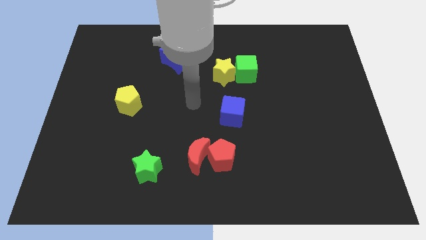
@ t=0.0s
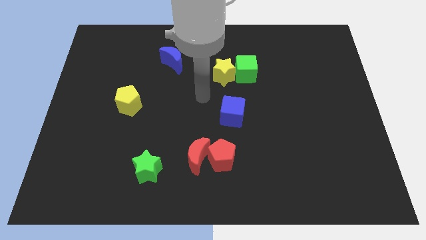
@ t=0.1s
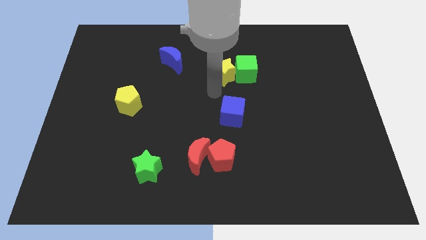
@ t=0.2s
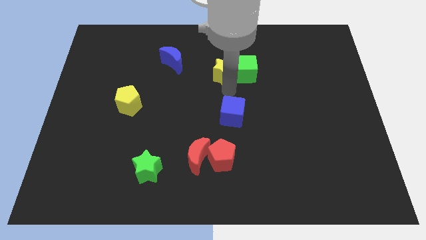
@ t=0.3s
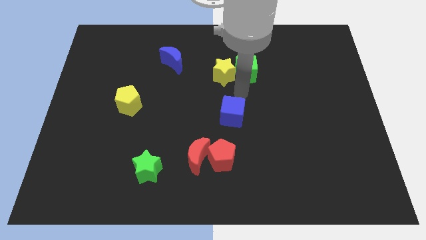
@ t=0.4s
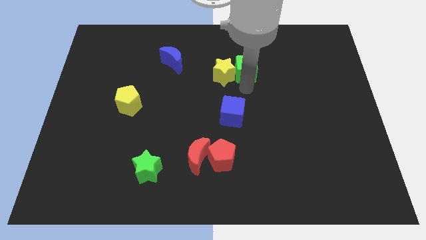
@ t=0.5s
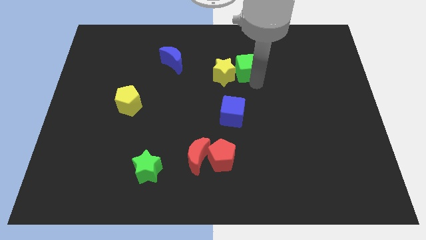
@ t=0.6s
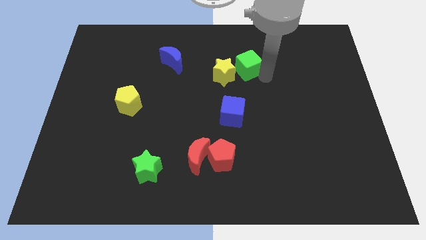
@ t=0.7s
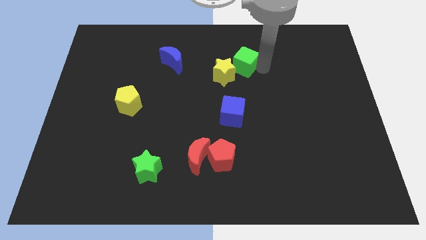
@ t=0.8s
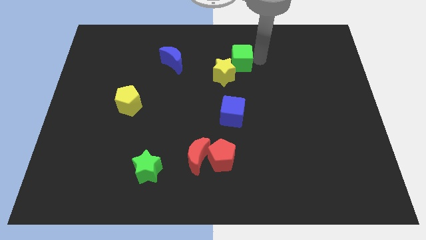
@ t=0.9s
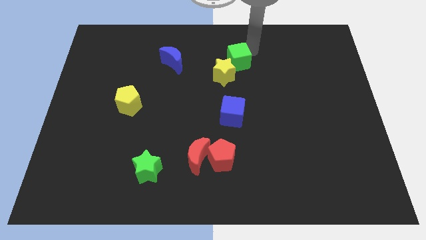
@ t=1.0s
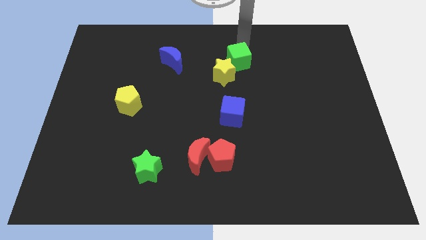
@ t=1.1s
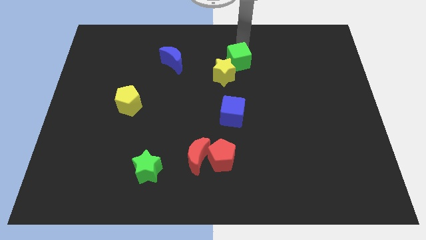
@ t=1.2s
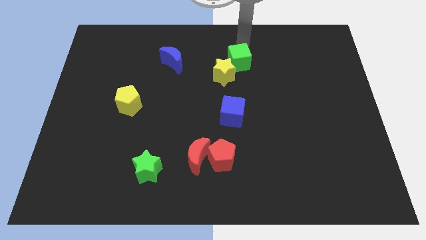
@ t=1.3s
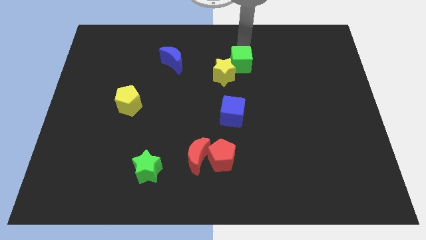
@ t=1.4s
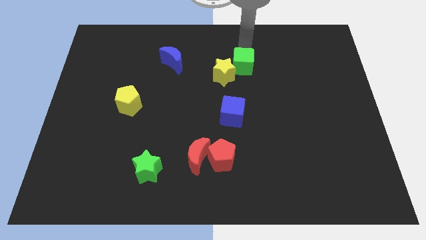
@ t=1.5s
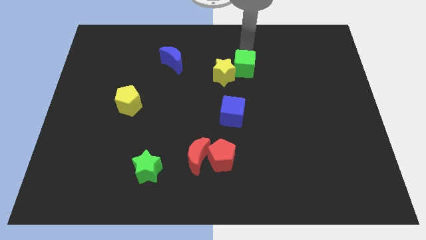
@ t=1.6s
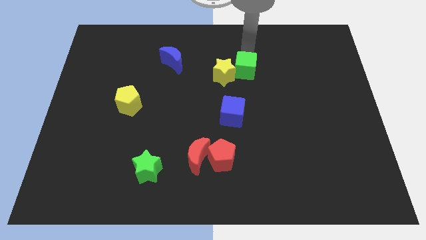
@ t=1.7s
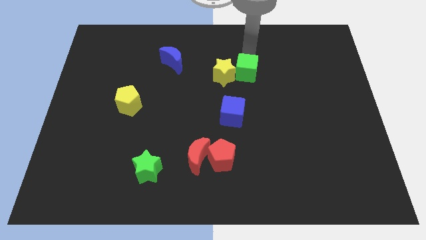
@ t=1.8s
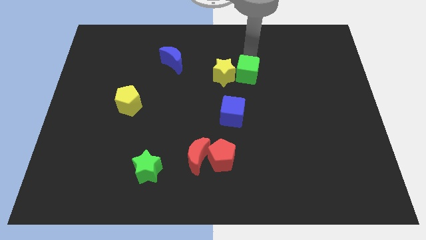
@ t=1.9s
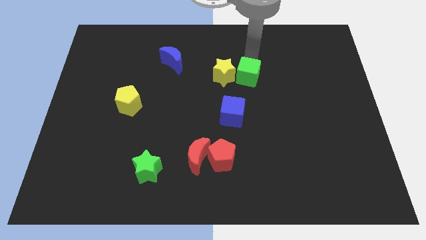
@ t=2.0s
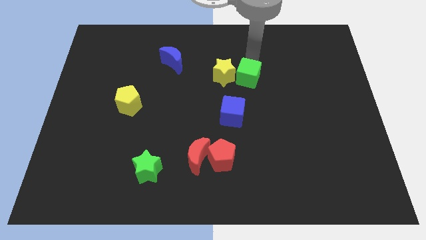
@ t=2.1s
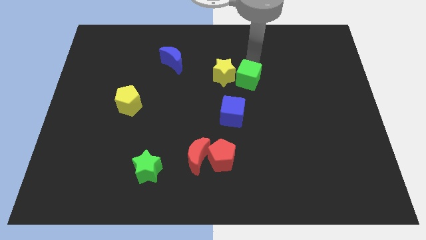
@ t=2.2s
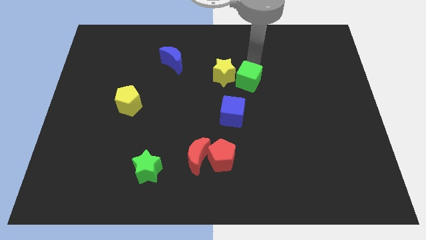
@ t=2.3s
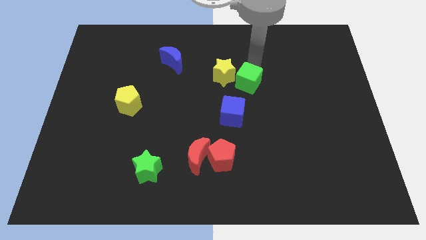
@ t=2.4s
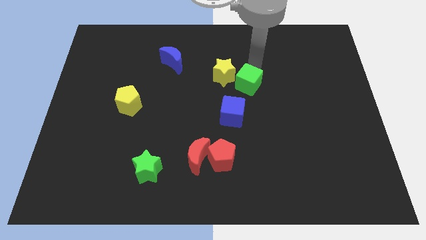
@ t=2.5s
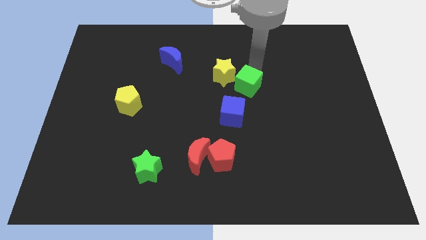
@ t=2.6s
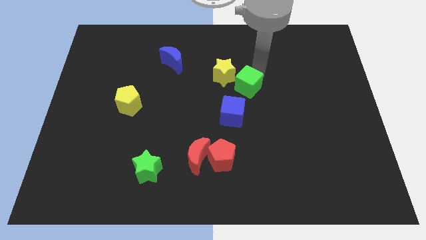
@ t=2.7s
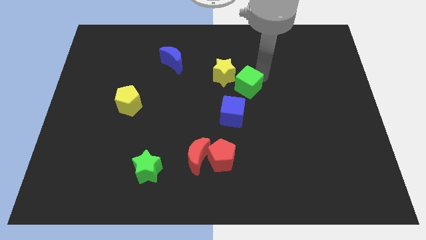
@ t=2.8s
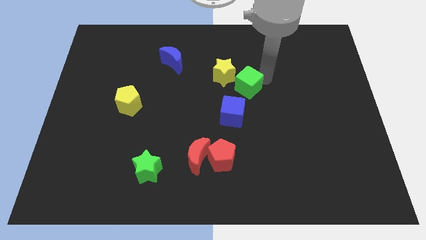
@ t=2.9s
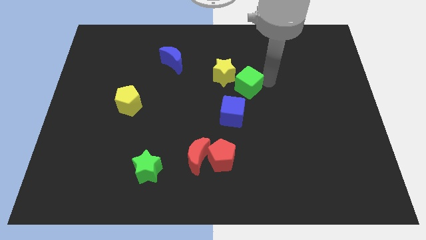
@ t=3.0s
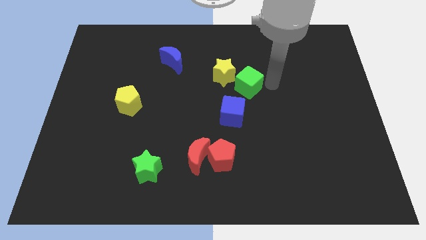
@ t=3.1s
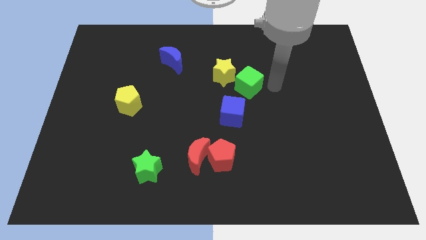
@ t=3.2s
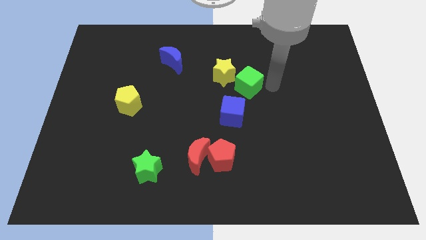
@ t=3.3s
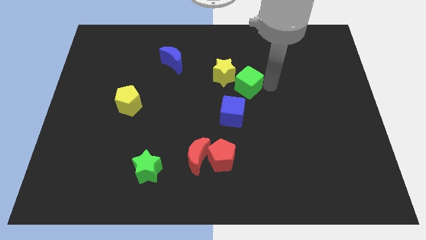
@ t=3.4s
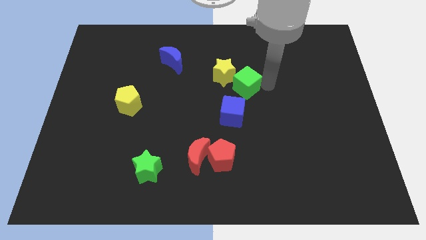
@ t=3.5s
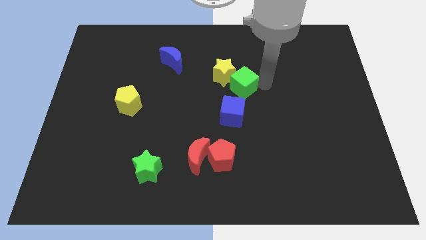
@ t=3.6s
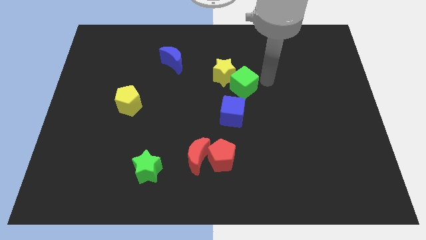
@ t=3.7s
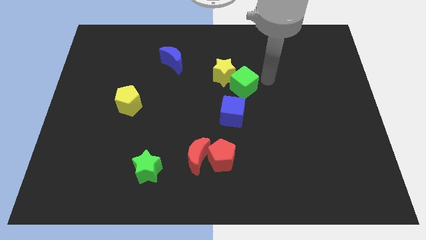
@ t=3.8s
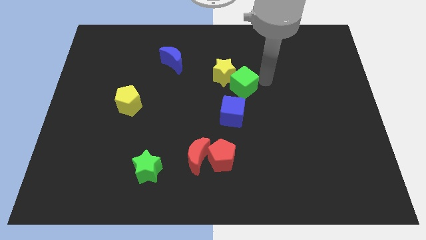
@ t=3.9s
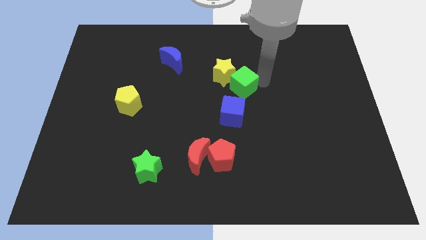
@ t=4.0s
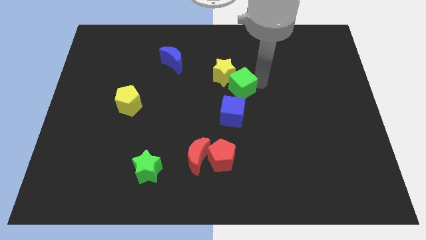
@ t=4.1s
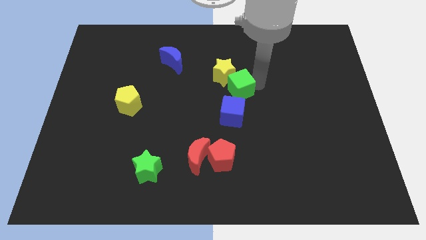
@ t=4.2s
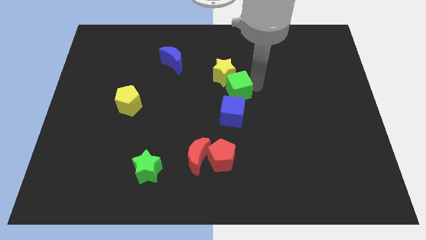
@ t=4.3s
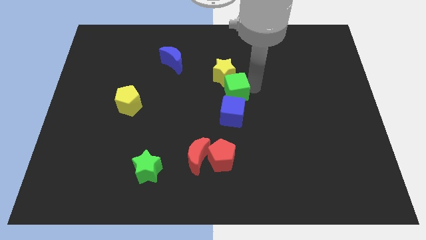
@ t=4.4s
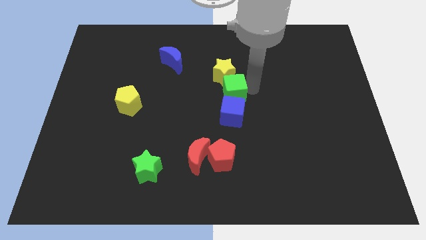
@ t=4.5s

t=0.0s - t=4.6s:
slightly slide the green cube downwards and then to the left

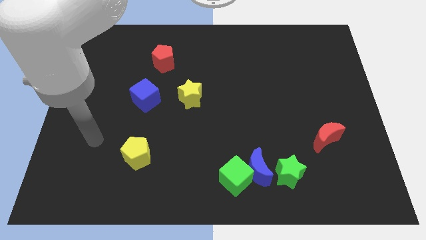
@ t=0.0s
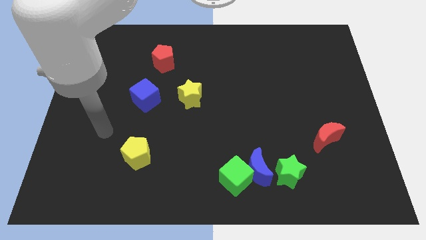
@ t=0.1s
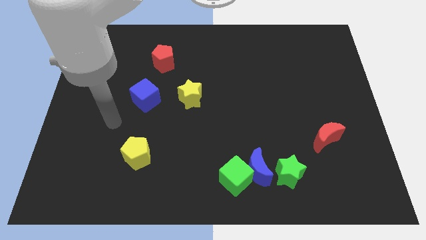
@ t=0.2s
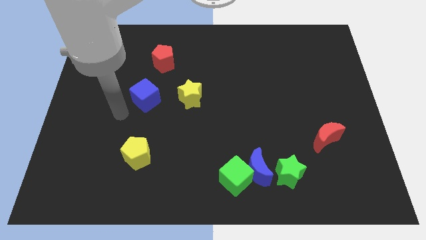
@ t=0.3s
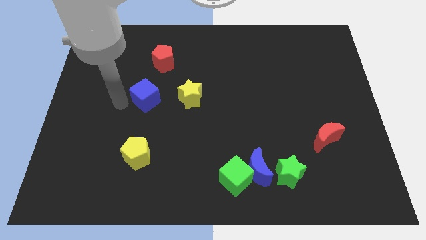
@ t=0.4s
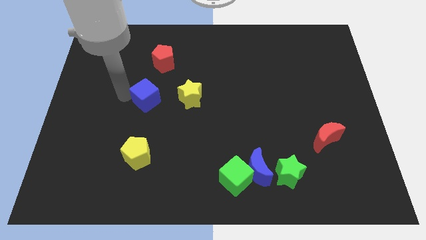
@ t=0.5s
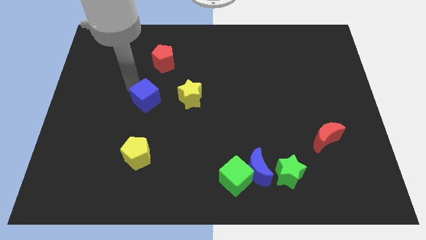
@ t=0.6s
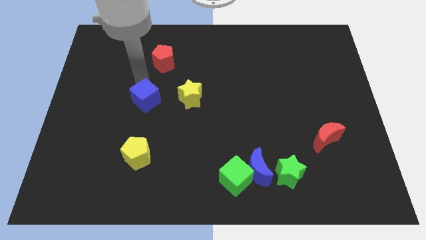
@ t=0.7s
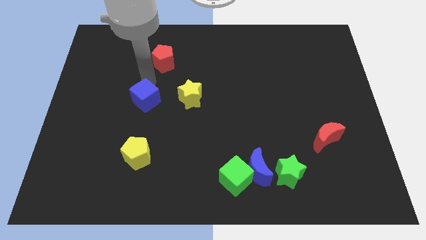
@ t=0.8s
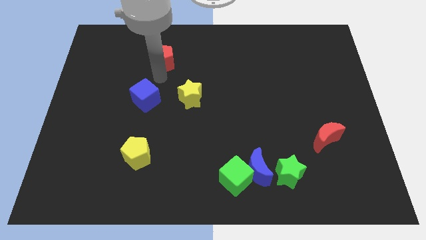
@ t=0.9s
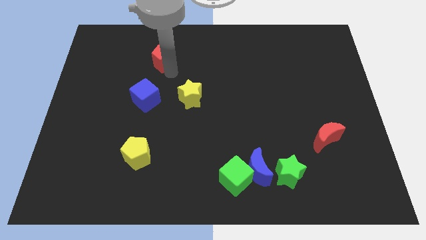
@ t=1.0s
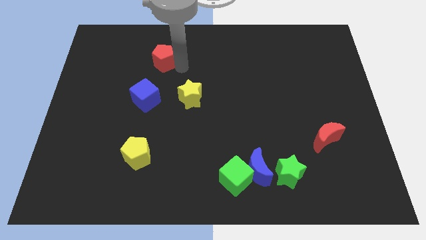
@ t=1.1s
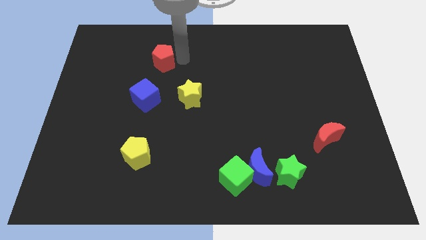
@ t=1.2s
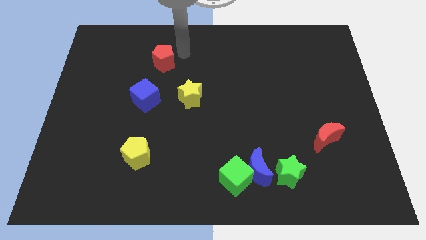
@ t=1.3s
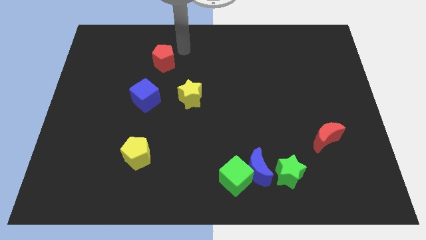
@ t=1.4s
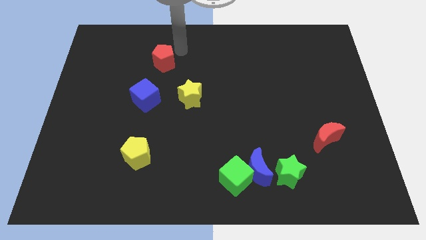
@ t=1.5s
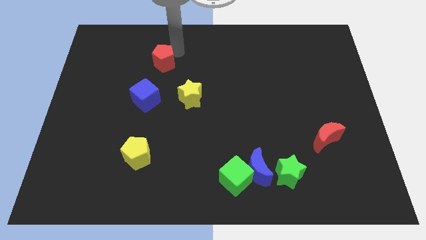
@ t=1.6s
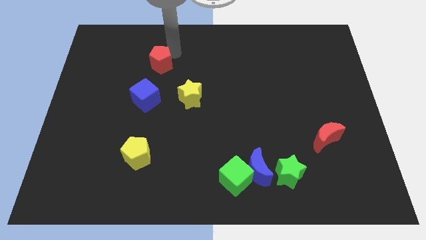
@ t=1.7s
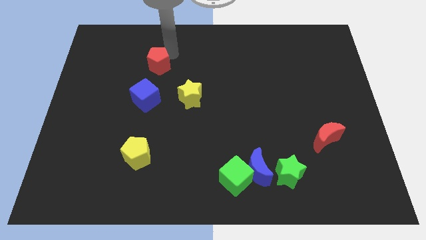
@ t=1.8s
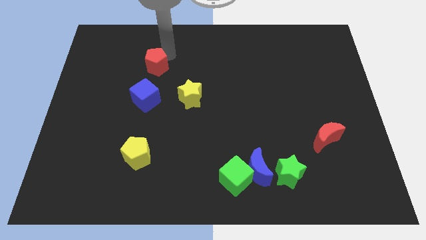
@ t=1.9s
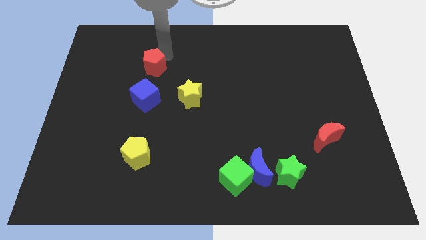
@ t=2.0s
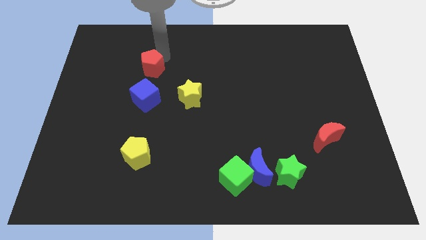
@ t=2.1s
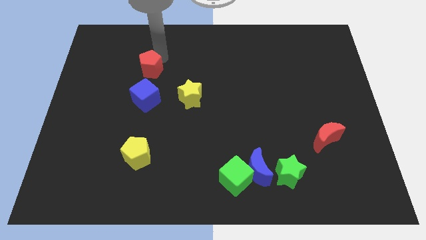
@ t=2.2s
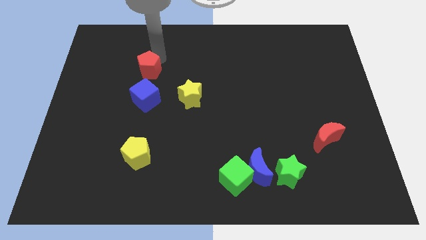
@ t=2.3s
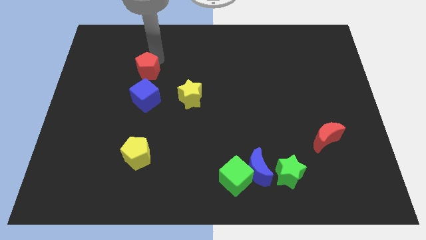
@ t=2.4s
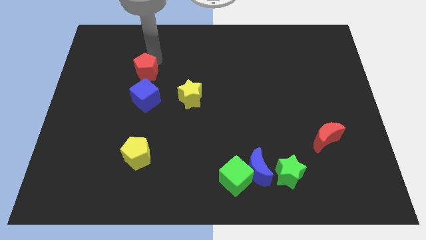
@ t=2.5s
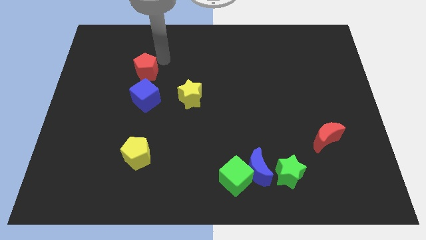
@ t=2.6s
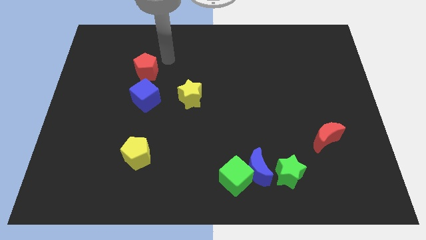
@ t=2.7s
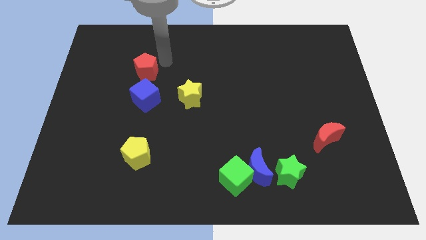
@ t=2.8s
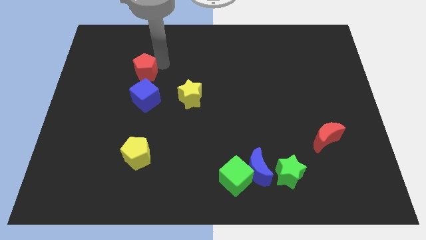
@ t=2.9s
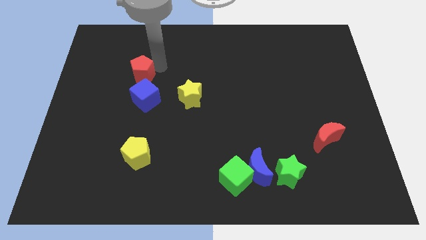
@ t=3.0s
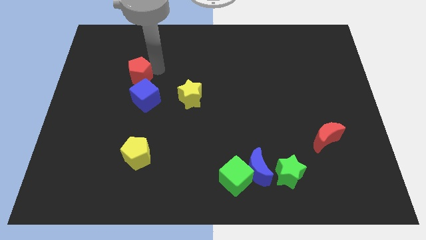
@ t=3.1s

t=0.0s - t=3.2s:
slide the red pentagon diagonally down and to the left a little

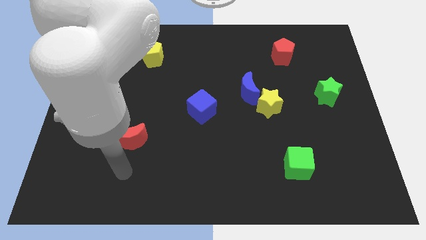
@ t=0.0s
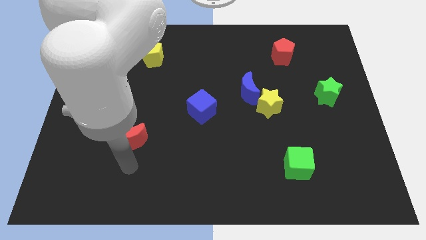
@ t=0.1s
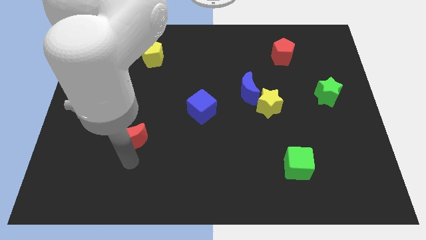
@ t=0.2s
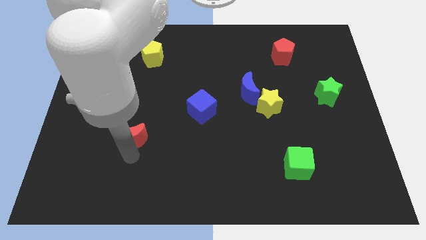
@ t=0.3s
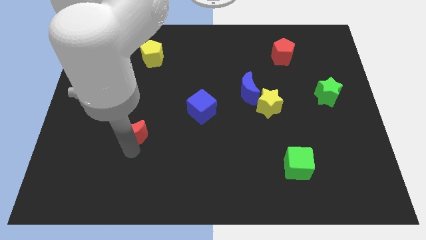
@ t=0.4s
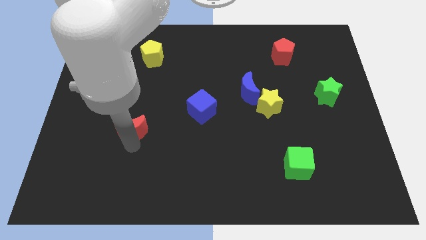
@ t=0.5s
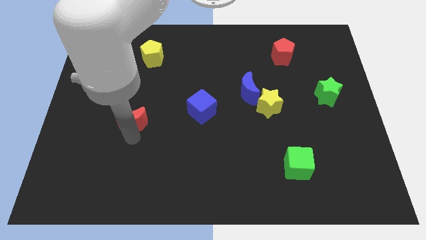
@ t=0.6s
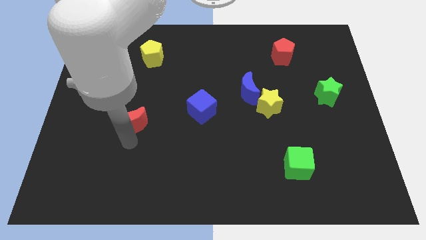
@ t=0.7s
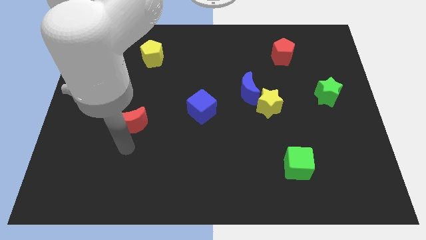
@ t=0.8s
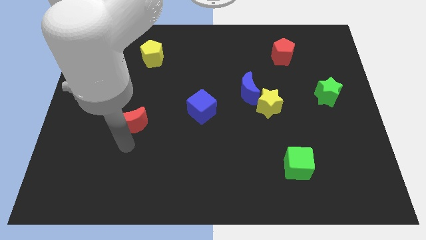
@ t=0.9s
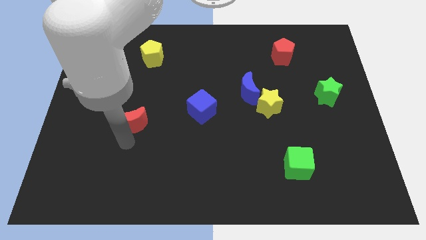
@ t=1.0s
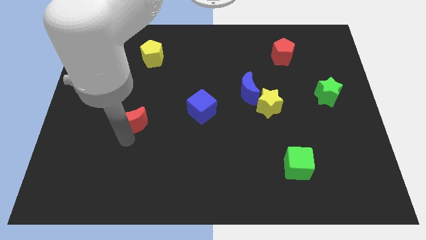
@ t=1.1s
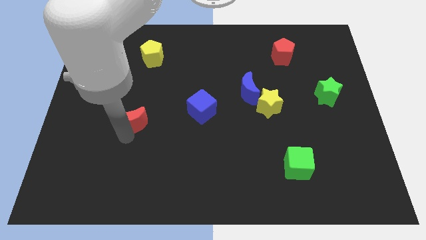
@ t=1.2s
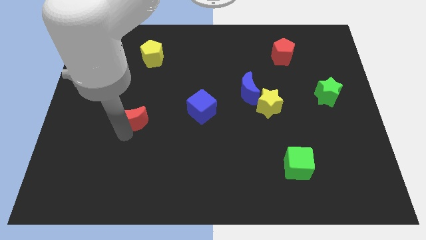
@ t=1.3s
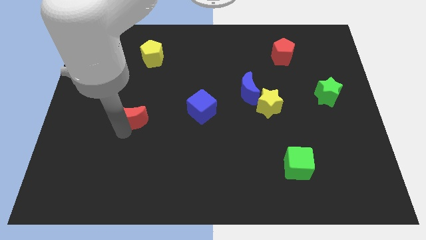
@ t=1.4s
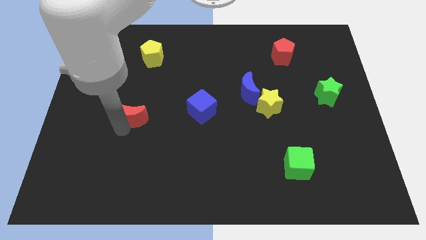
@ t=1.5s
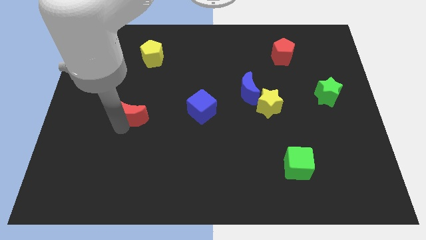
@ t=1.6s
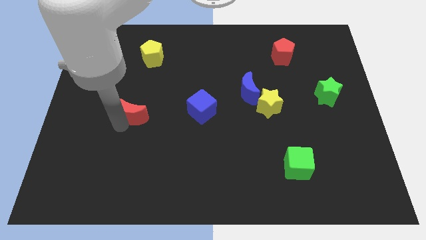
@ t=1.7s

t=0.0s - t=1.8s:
move the red moon a bit up
